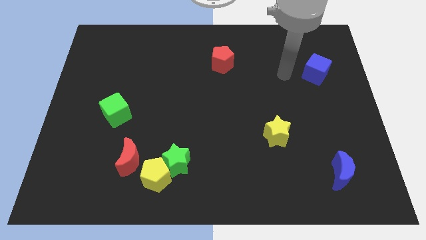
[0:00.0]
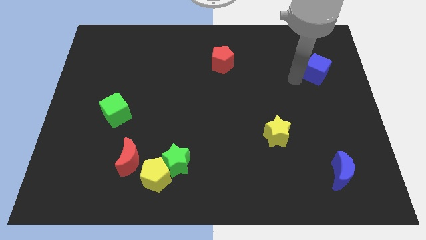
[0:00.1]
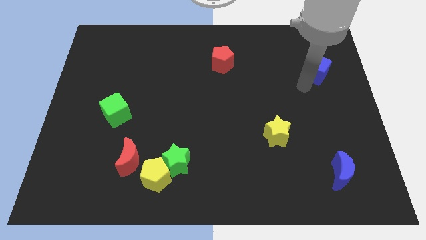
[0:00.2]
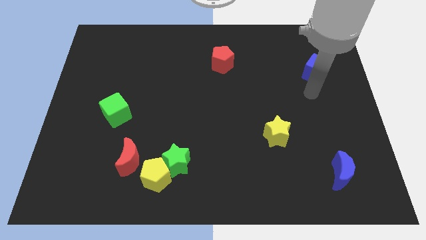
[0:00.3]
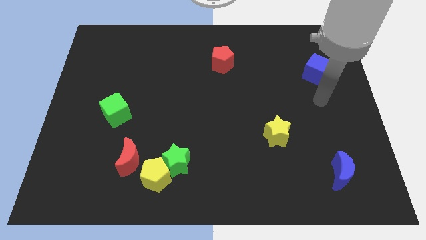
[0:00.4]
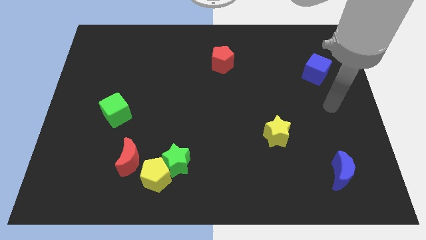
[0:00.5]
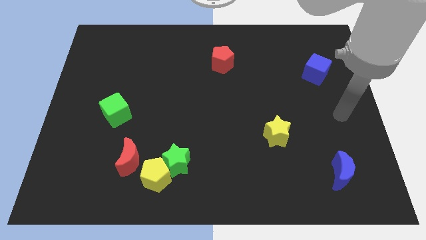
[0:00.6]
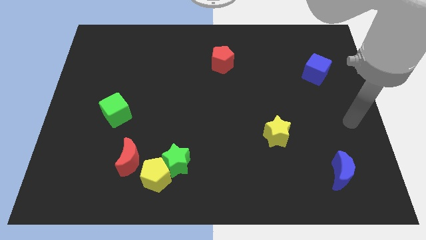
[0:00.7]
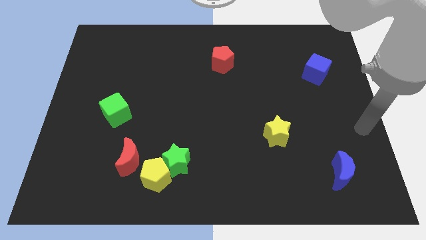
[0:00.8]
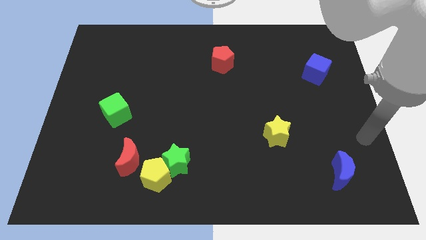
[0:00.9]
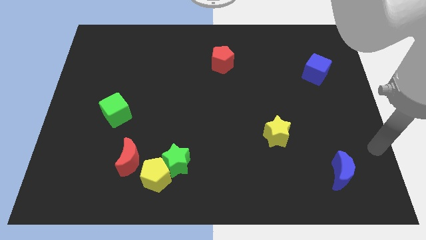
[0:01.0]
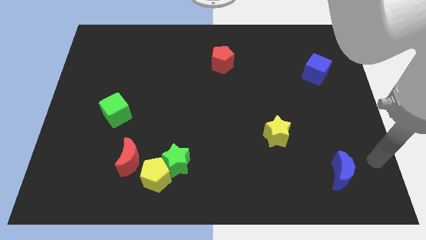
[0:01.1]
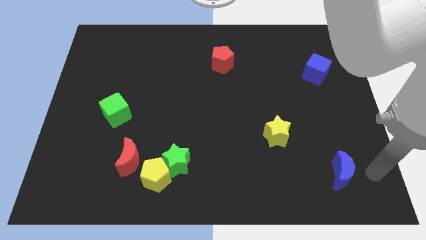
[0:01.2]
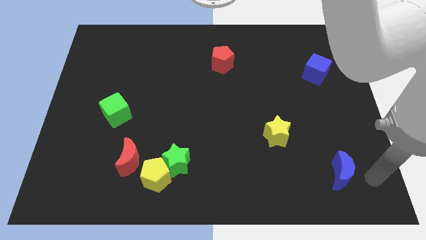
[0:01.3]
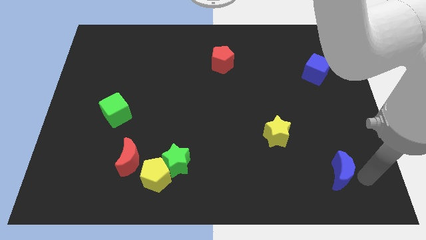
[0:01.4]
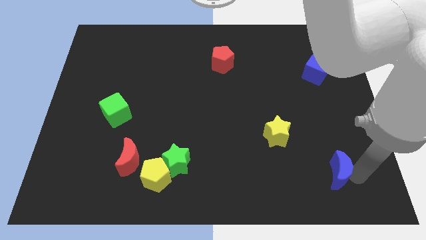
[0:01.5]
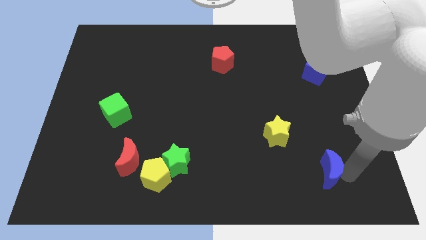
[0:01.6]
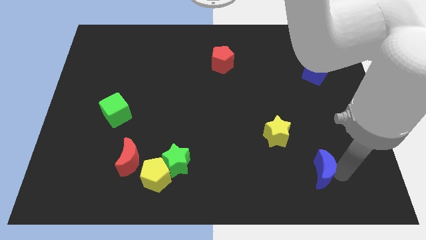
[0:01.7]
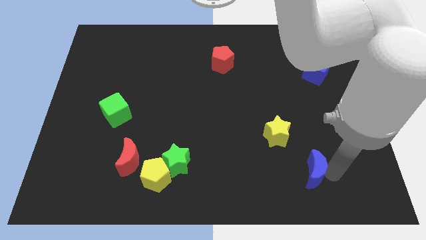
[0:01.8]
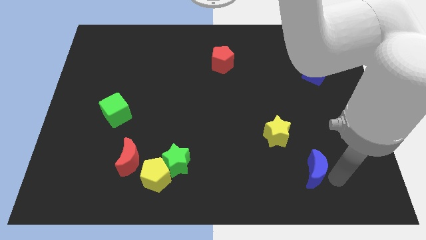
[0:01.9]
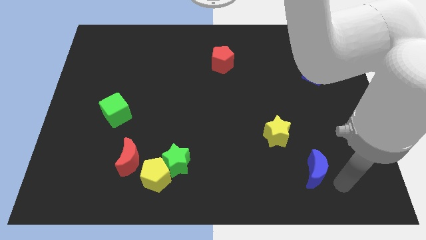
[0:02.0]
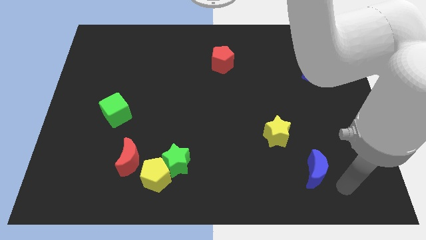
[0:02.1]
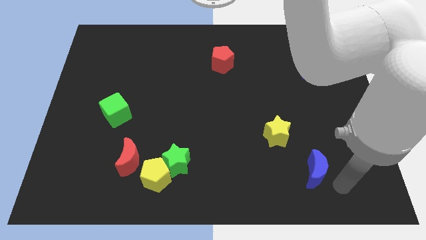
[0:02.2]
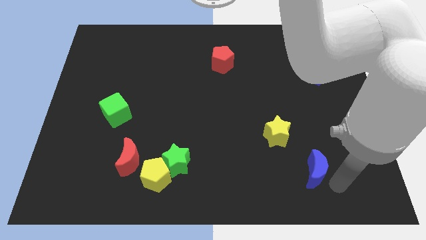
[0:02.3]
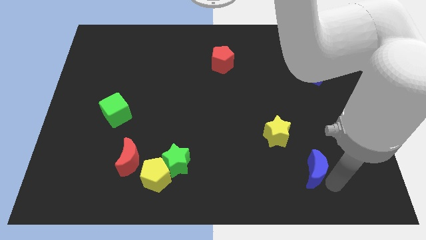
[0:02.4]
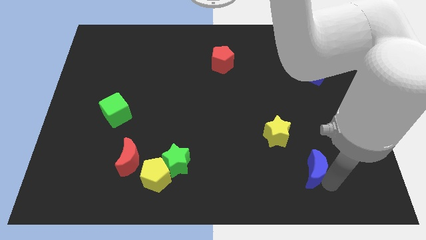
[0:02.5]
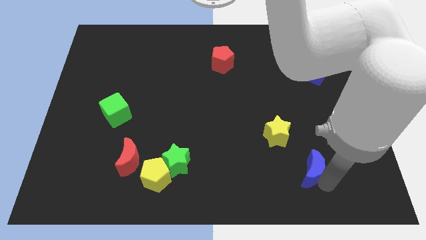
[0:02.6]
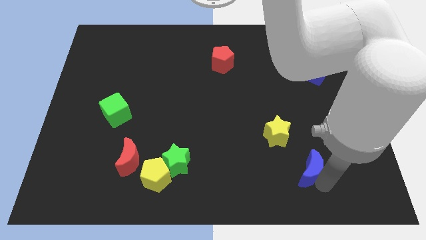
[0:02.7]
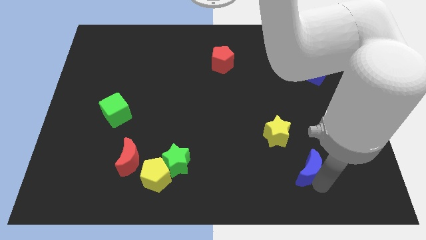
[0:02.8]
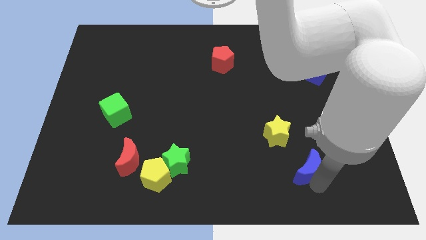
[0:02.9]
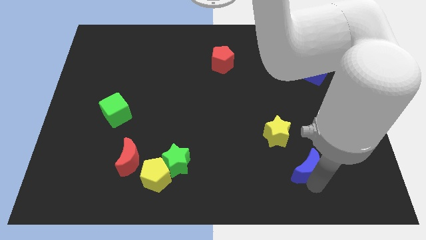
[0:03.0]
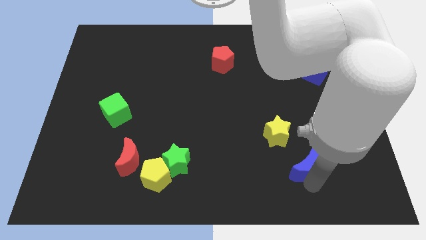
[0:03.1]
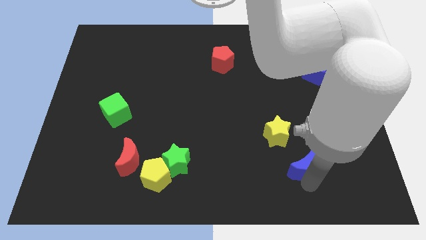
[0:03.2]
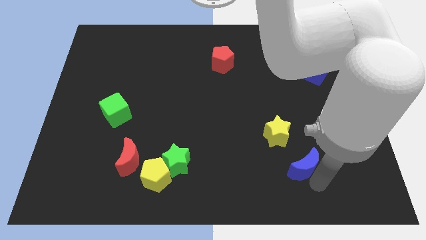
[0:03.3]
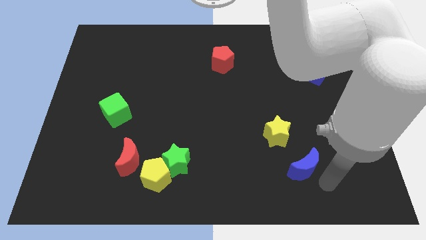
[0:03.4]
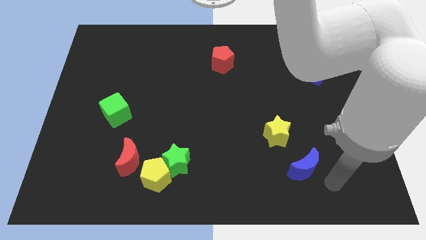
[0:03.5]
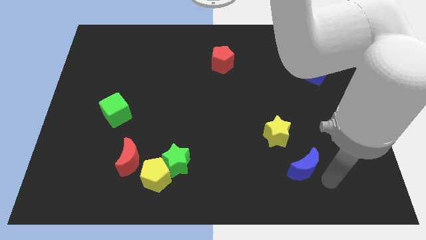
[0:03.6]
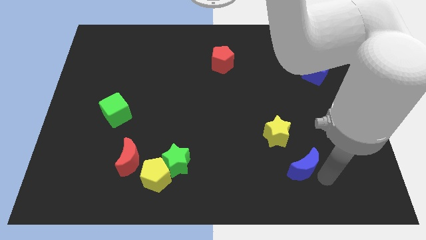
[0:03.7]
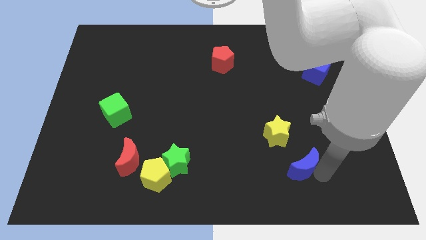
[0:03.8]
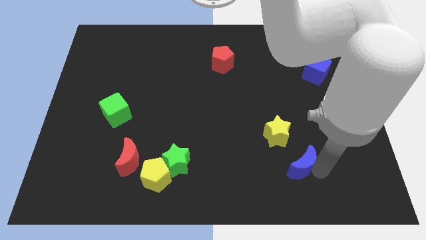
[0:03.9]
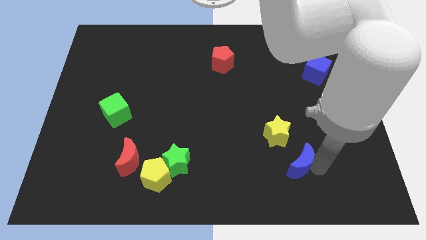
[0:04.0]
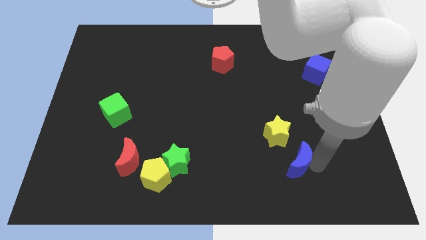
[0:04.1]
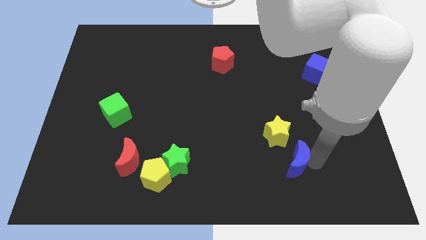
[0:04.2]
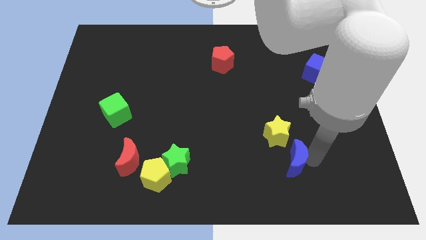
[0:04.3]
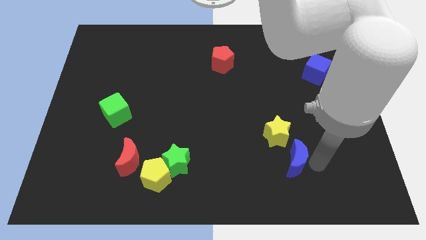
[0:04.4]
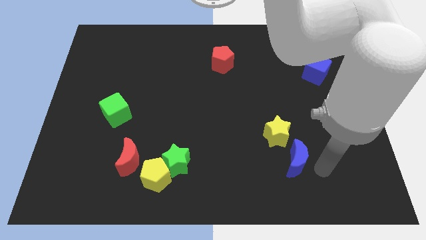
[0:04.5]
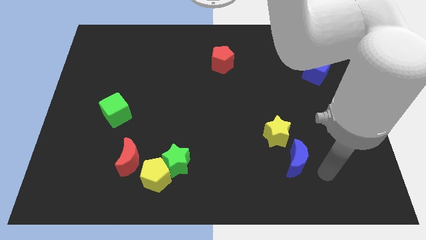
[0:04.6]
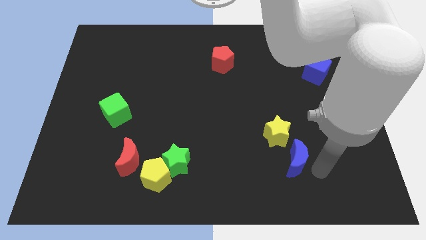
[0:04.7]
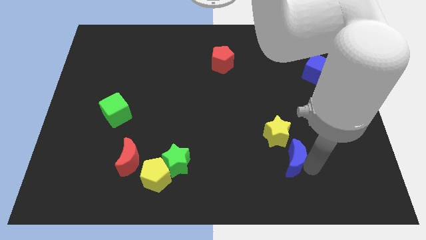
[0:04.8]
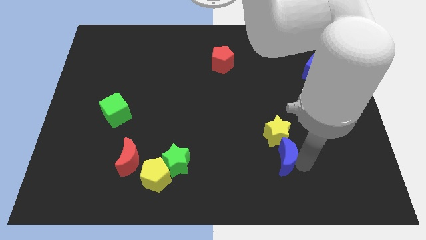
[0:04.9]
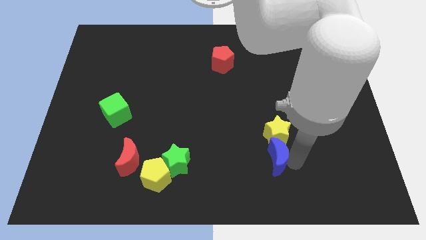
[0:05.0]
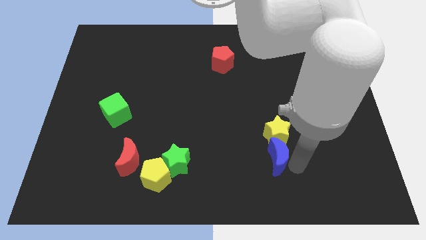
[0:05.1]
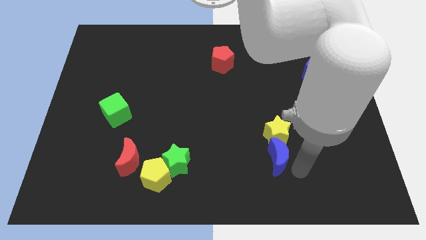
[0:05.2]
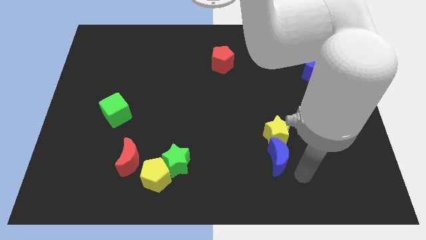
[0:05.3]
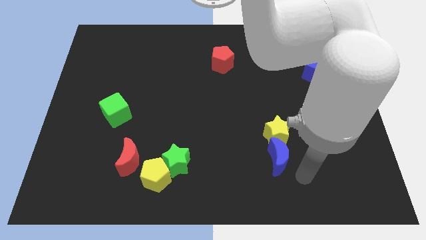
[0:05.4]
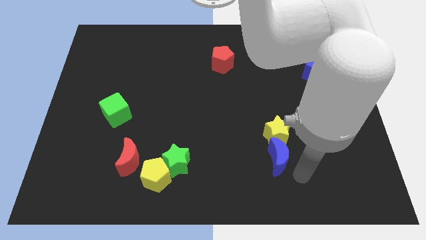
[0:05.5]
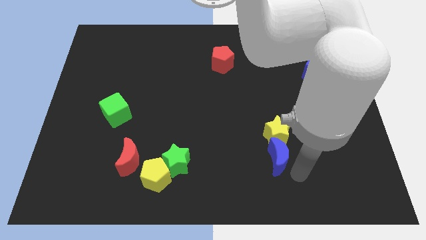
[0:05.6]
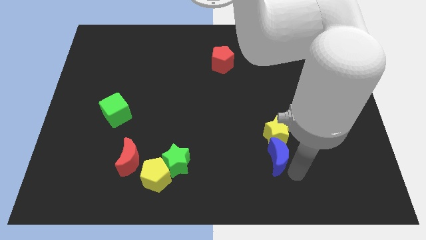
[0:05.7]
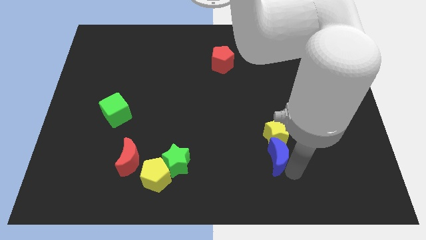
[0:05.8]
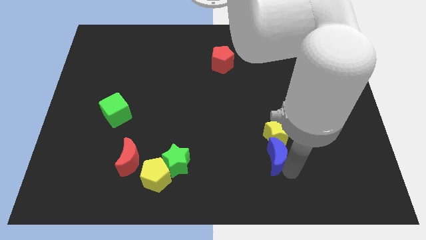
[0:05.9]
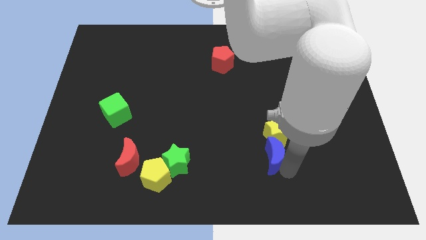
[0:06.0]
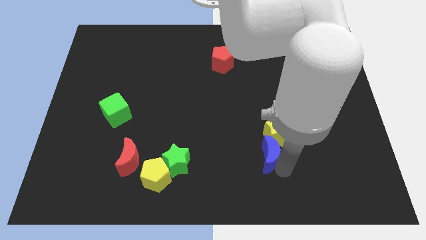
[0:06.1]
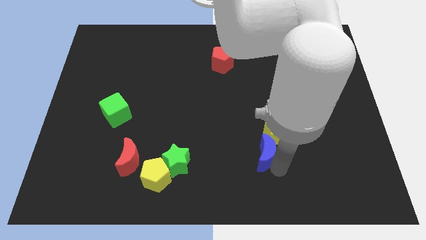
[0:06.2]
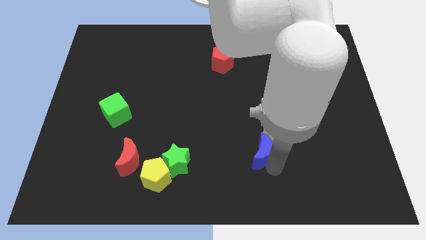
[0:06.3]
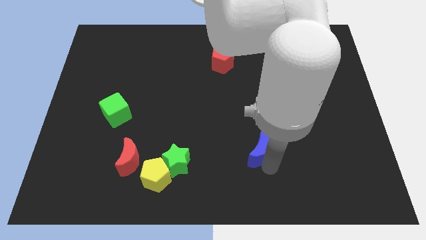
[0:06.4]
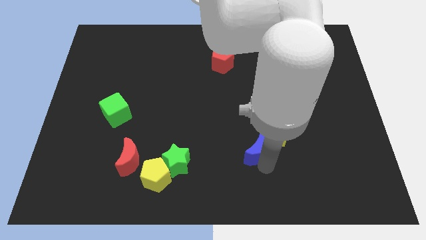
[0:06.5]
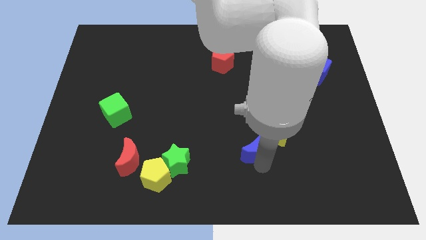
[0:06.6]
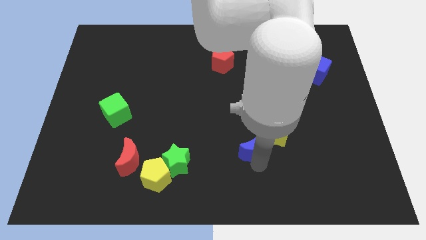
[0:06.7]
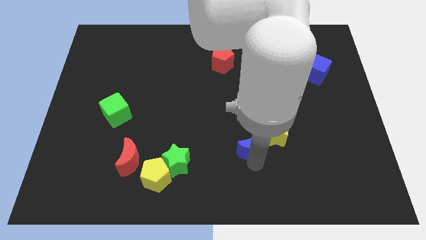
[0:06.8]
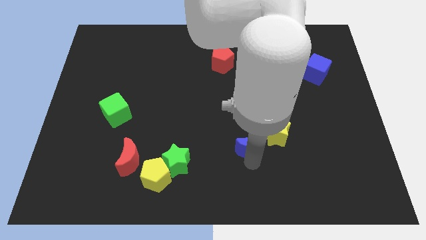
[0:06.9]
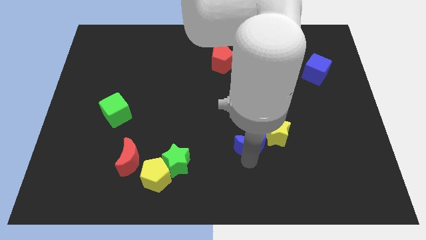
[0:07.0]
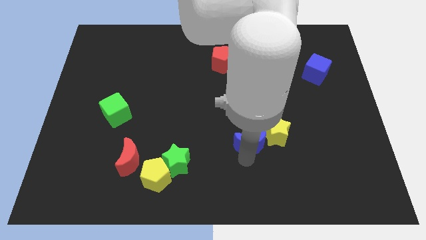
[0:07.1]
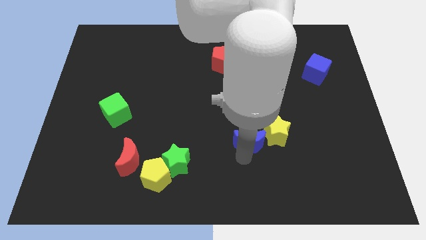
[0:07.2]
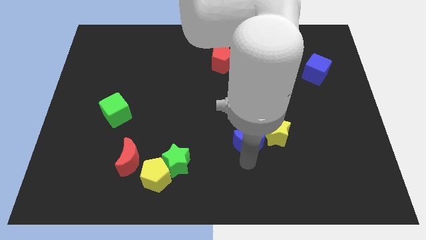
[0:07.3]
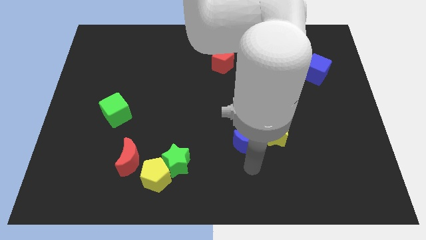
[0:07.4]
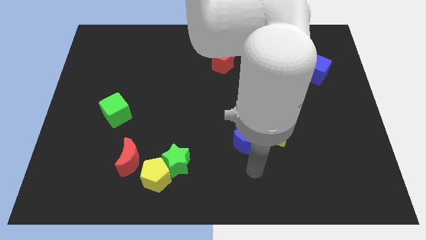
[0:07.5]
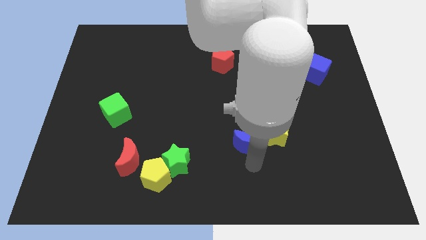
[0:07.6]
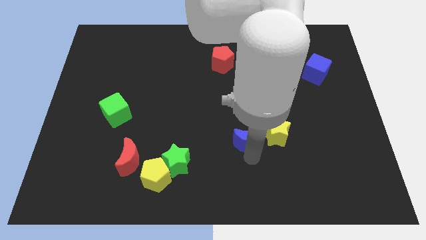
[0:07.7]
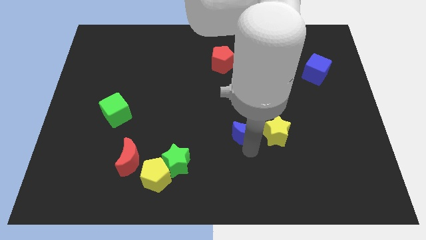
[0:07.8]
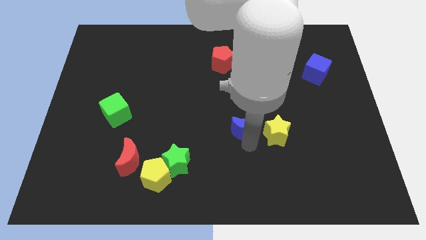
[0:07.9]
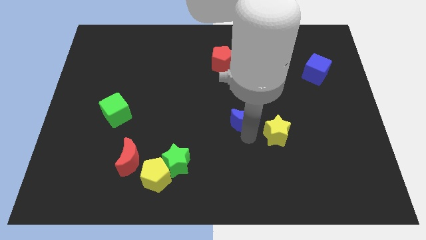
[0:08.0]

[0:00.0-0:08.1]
move the blue moon diagonally up and left

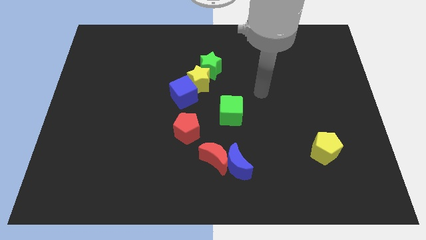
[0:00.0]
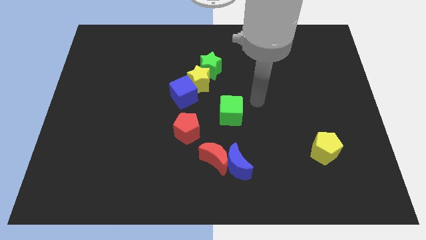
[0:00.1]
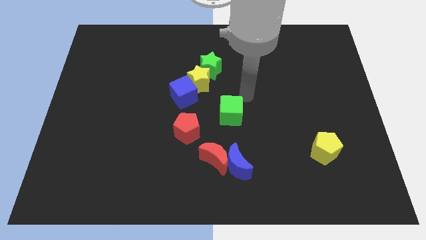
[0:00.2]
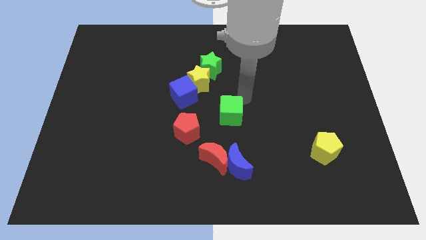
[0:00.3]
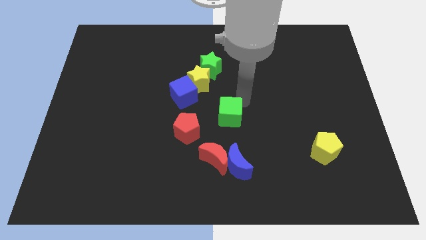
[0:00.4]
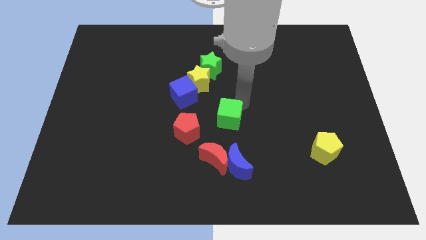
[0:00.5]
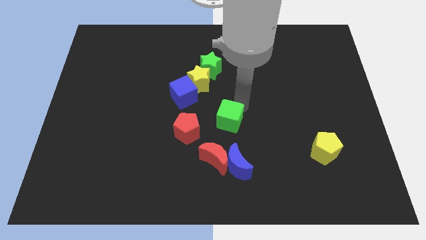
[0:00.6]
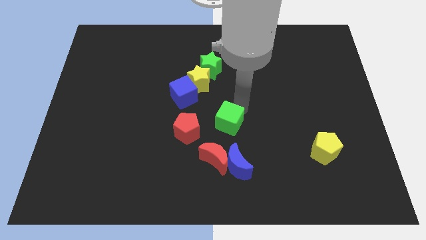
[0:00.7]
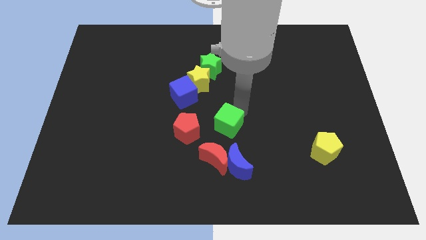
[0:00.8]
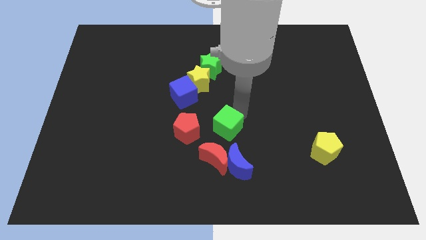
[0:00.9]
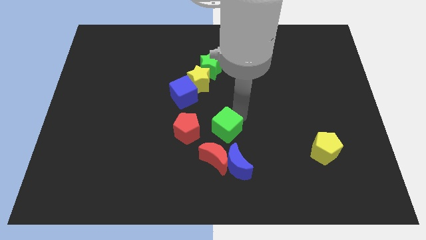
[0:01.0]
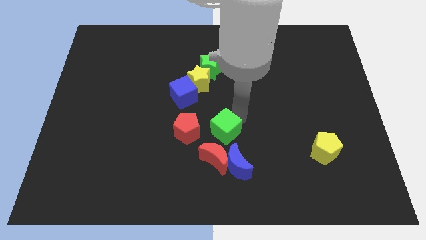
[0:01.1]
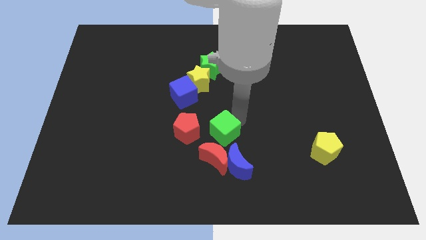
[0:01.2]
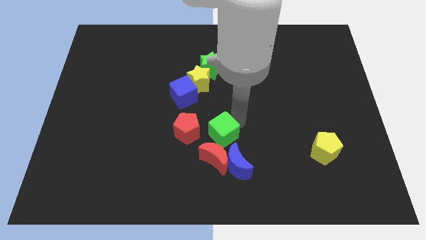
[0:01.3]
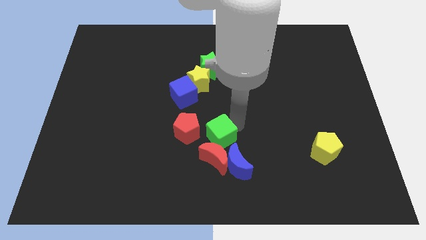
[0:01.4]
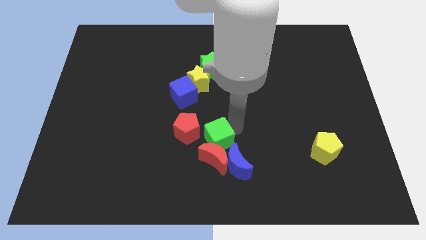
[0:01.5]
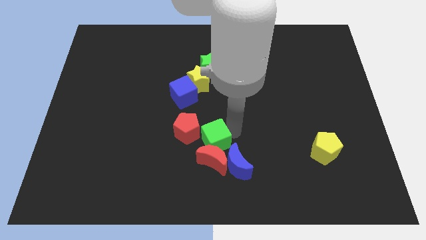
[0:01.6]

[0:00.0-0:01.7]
slightly move the green cube downwards and then to the left
